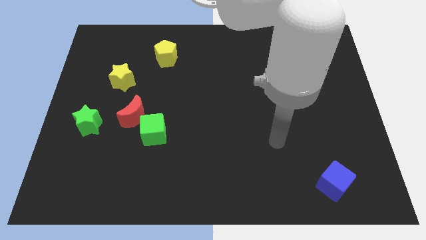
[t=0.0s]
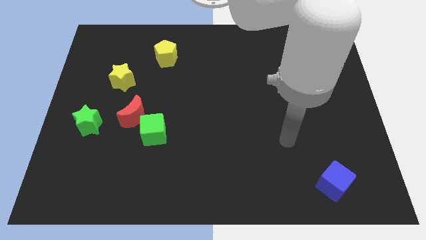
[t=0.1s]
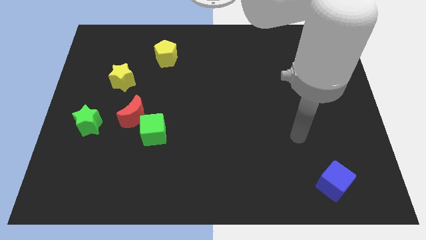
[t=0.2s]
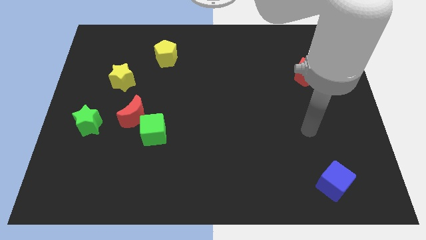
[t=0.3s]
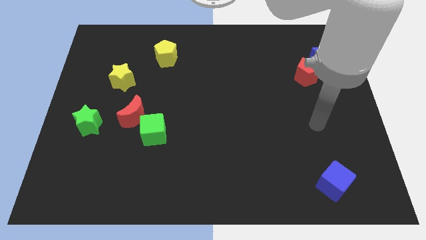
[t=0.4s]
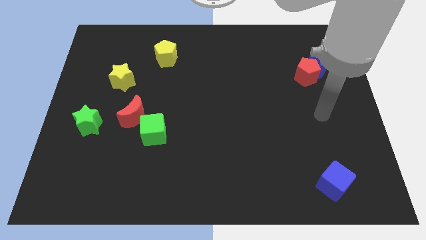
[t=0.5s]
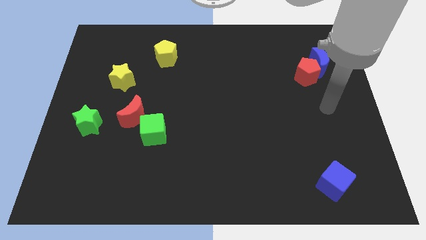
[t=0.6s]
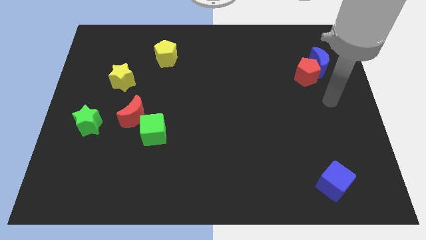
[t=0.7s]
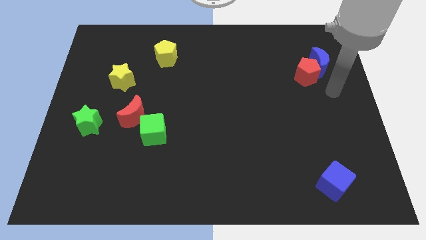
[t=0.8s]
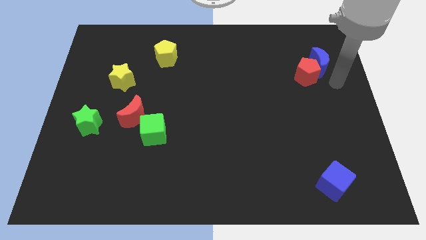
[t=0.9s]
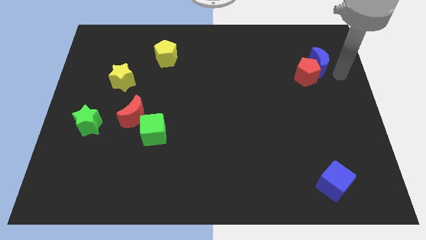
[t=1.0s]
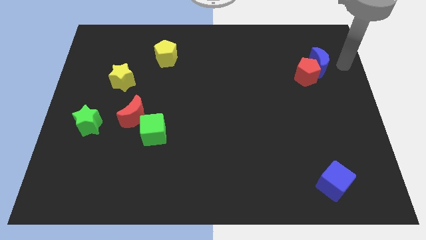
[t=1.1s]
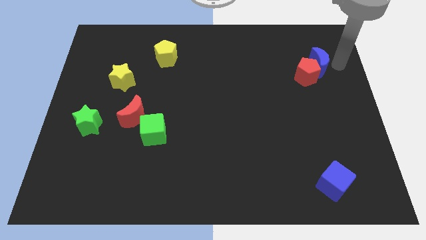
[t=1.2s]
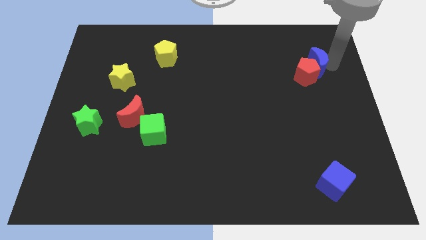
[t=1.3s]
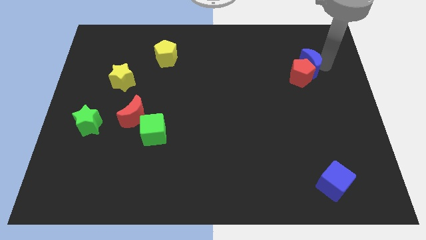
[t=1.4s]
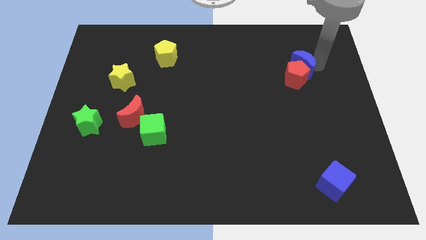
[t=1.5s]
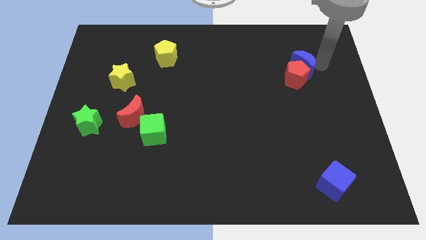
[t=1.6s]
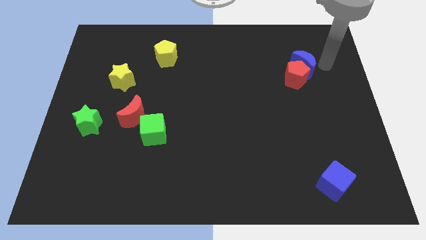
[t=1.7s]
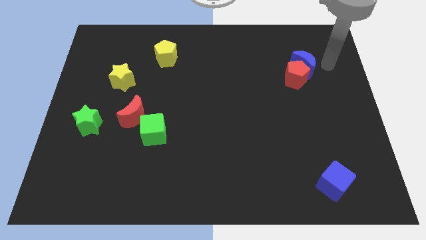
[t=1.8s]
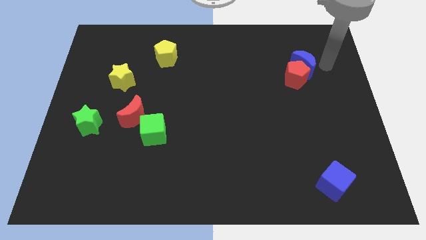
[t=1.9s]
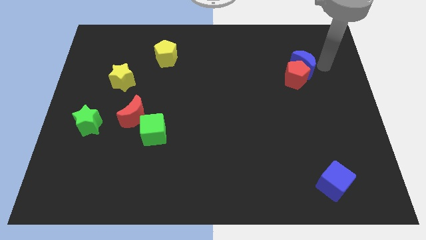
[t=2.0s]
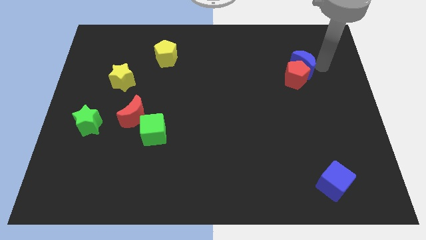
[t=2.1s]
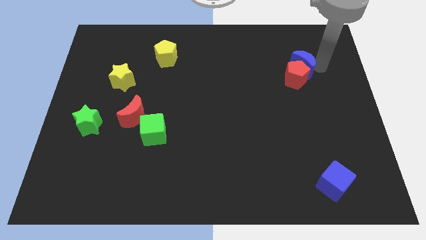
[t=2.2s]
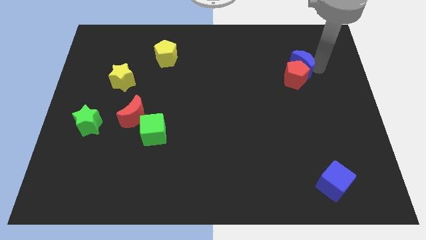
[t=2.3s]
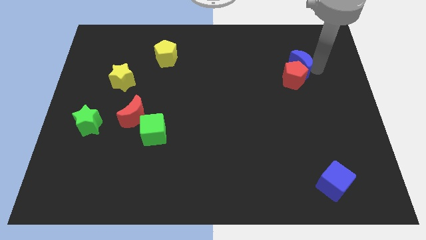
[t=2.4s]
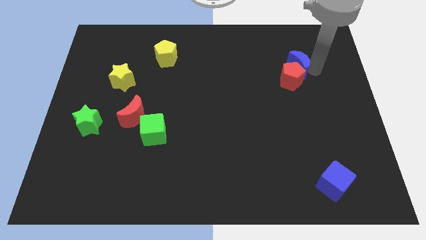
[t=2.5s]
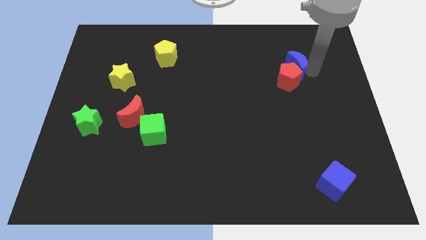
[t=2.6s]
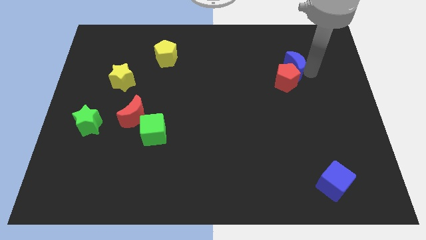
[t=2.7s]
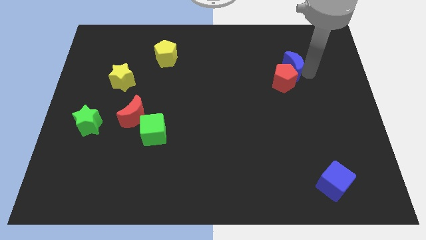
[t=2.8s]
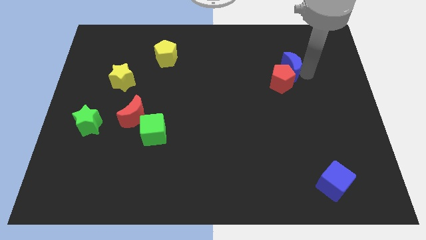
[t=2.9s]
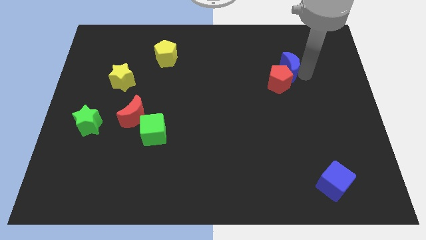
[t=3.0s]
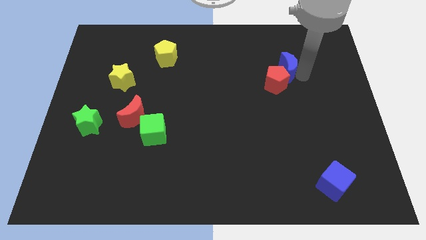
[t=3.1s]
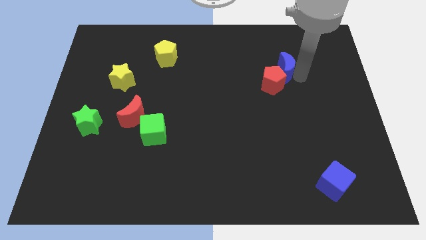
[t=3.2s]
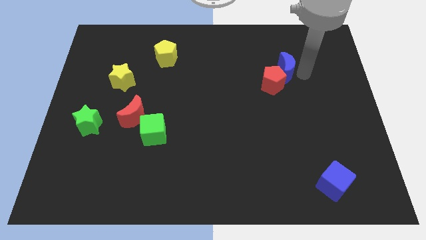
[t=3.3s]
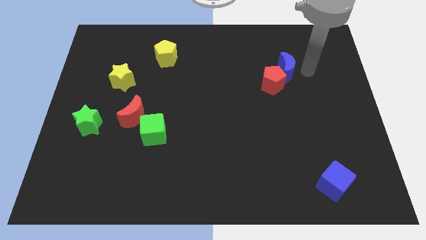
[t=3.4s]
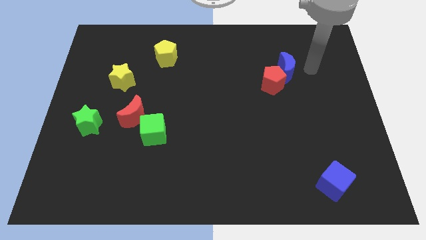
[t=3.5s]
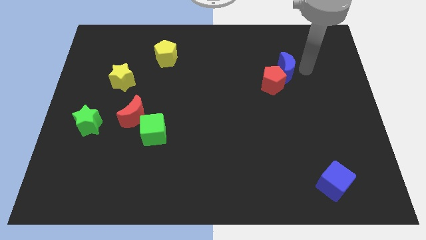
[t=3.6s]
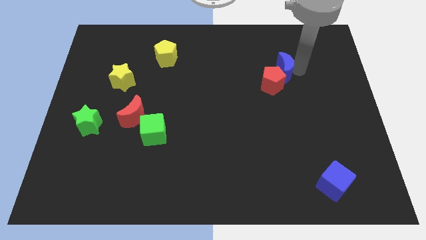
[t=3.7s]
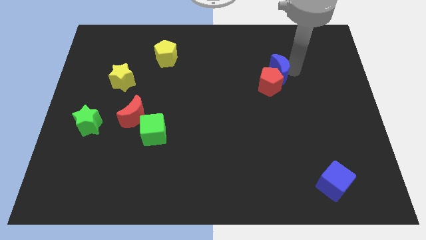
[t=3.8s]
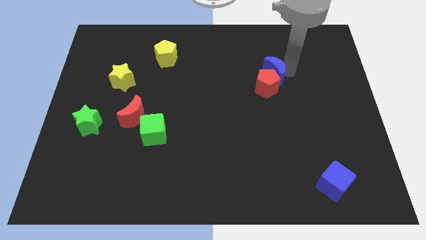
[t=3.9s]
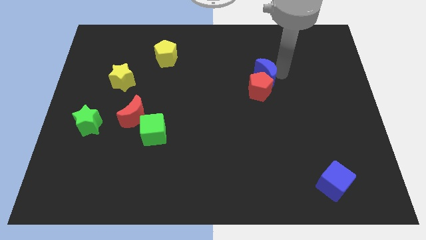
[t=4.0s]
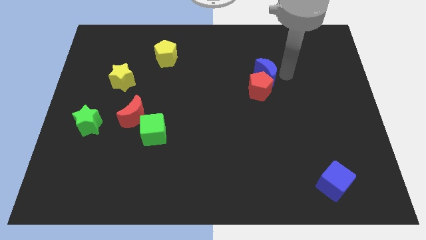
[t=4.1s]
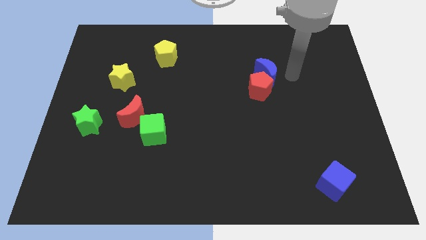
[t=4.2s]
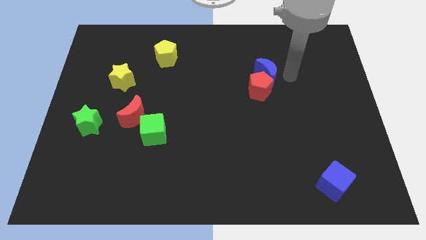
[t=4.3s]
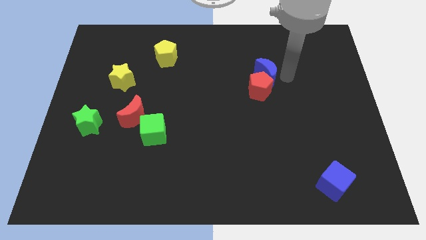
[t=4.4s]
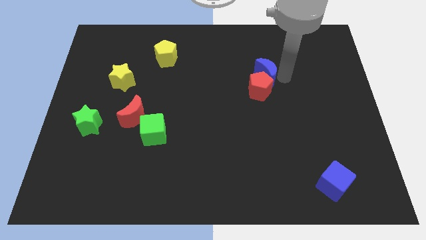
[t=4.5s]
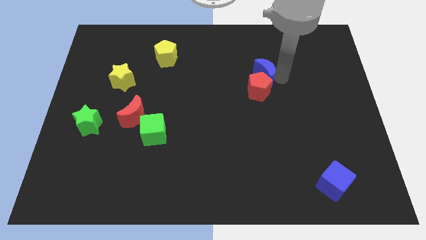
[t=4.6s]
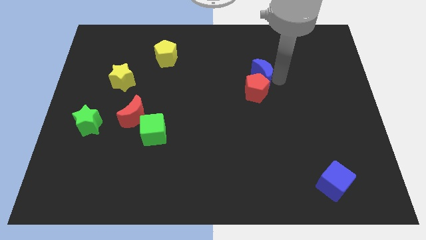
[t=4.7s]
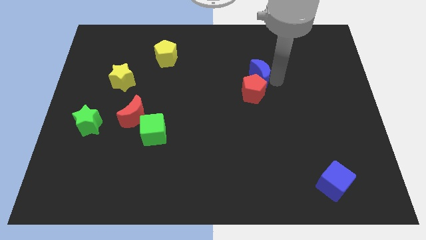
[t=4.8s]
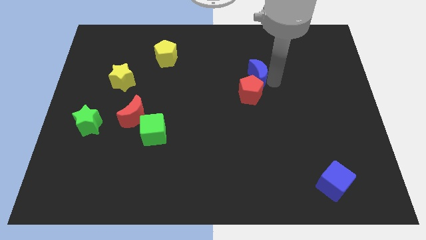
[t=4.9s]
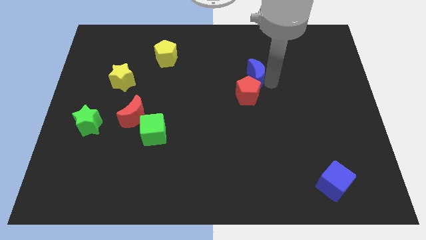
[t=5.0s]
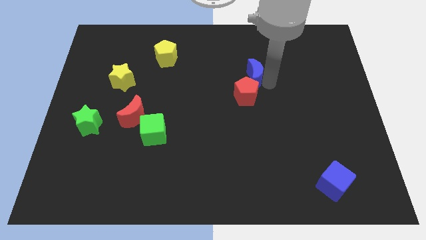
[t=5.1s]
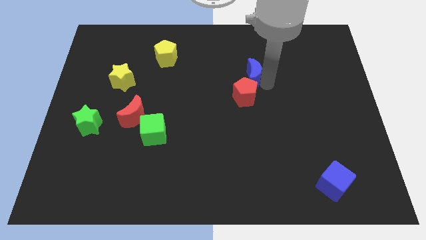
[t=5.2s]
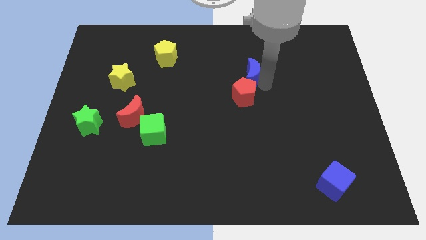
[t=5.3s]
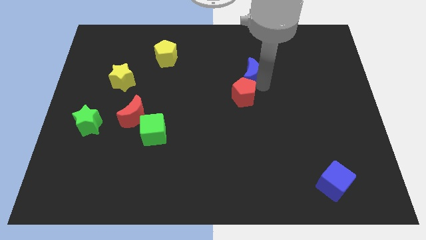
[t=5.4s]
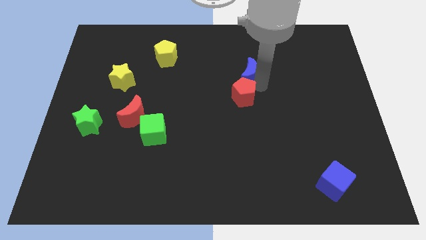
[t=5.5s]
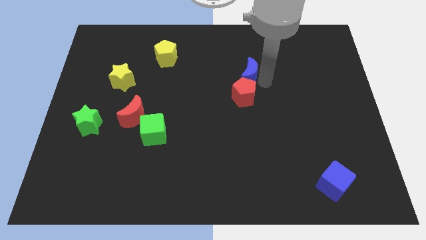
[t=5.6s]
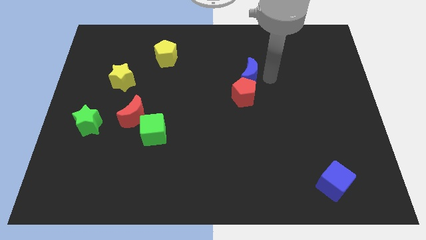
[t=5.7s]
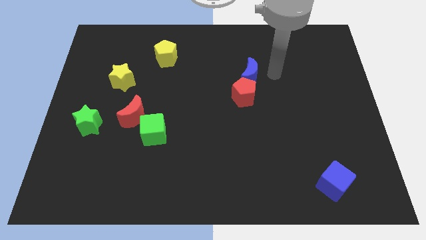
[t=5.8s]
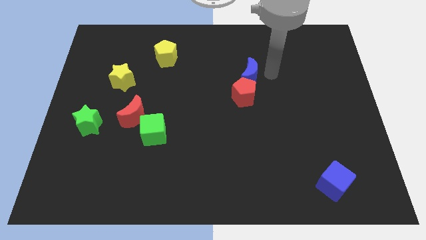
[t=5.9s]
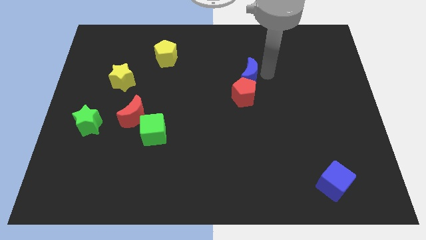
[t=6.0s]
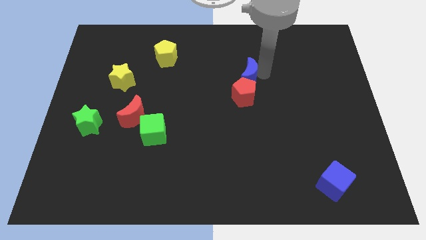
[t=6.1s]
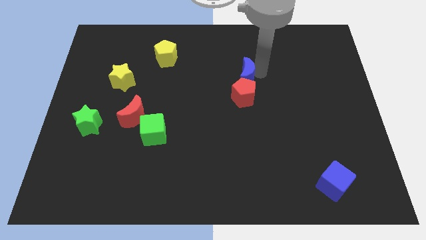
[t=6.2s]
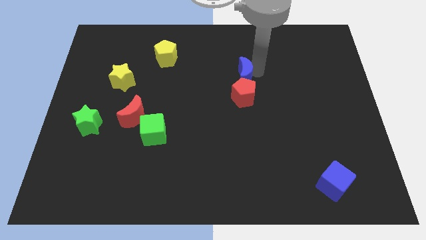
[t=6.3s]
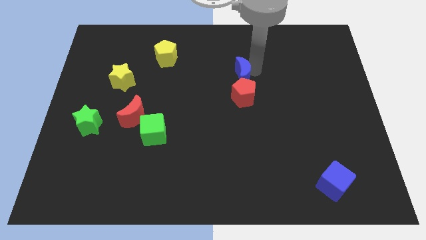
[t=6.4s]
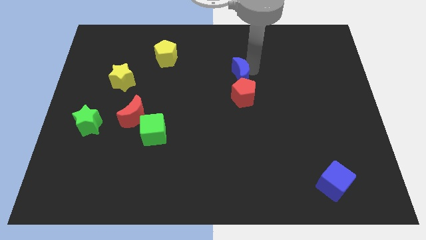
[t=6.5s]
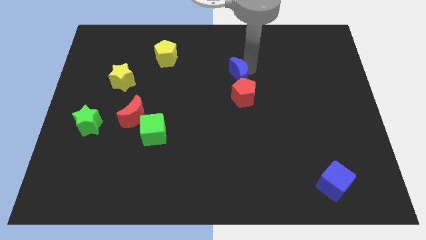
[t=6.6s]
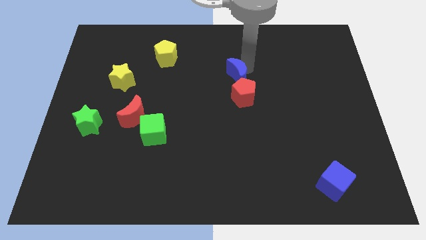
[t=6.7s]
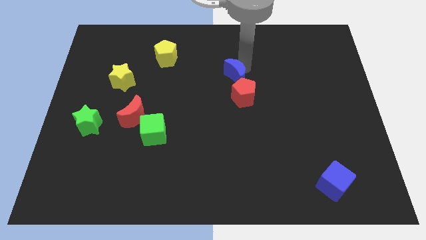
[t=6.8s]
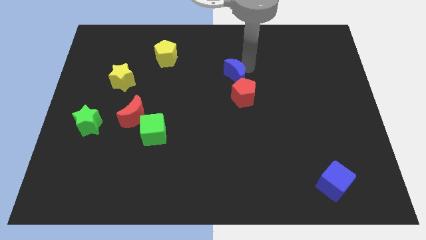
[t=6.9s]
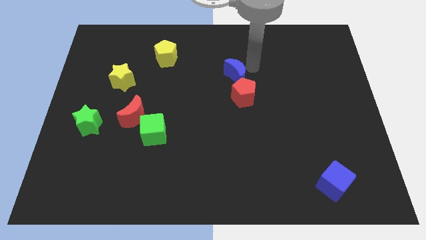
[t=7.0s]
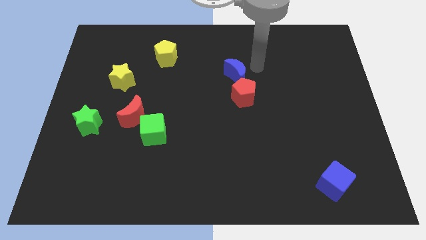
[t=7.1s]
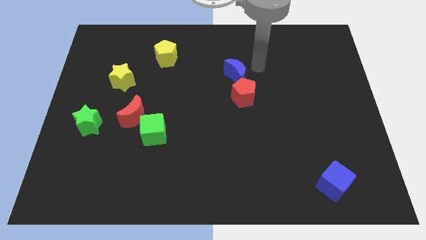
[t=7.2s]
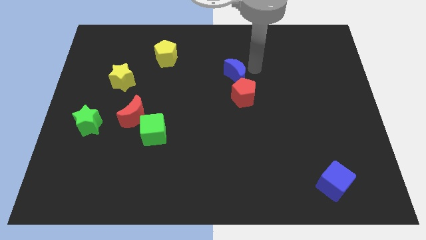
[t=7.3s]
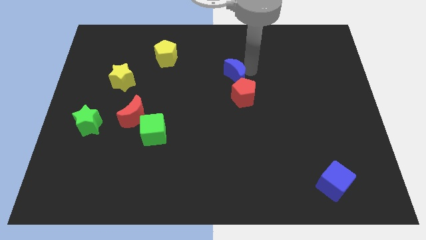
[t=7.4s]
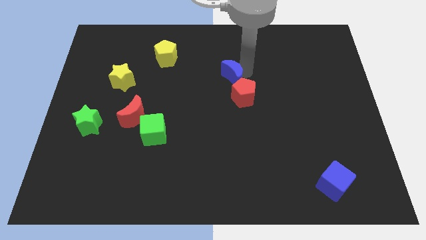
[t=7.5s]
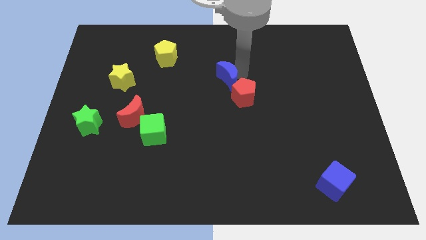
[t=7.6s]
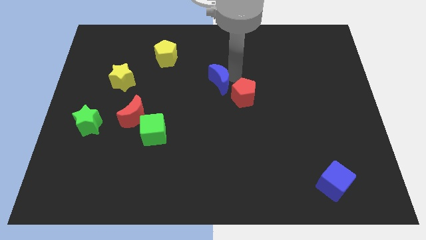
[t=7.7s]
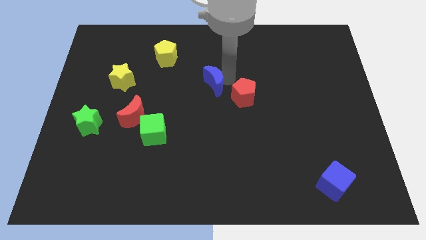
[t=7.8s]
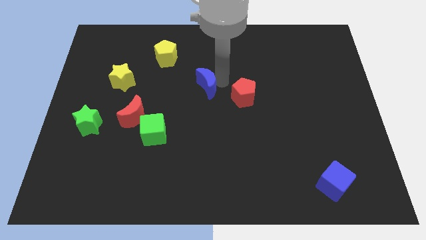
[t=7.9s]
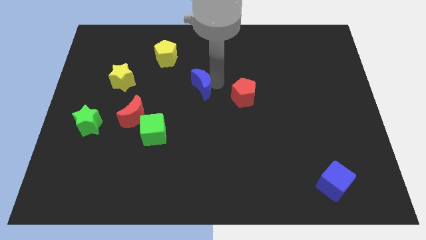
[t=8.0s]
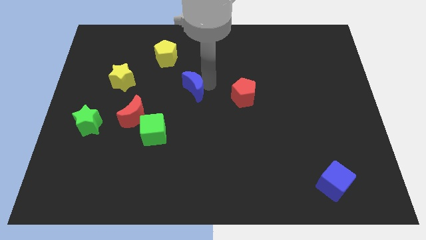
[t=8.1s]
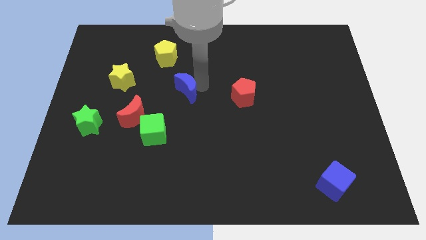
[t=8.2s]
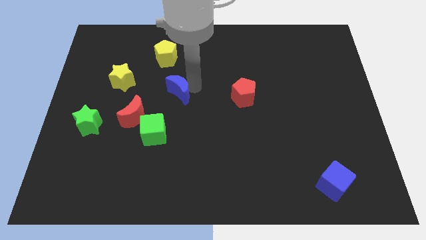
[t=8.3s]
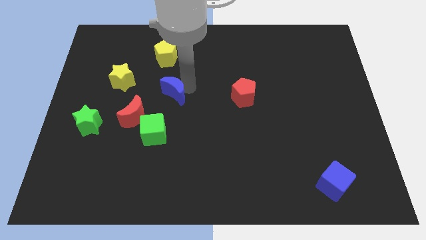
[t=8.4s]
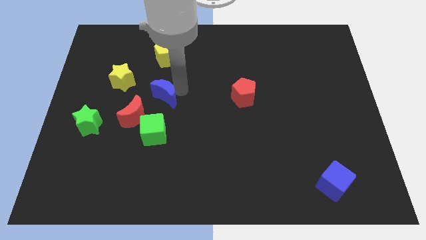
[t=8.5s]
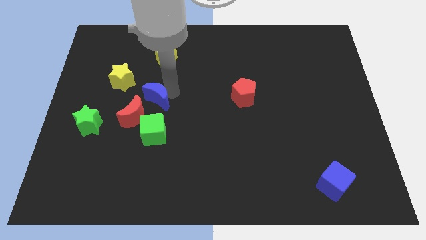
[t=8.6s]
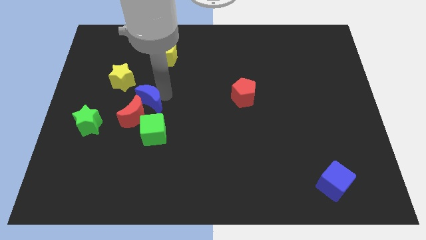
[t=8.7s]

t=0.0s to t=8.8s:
put the blue moon close to the red moon
